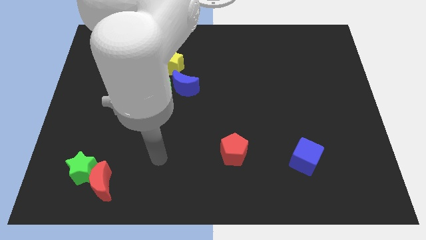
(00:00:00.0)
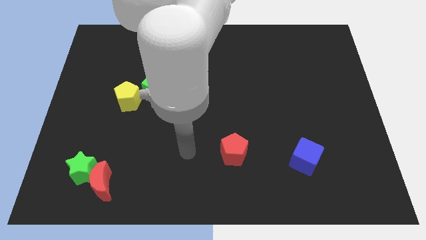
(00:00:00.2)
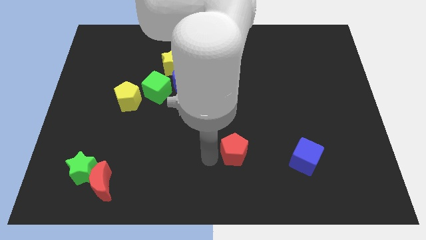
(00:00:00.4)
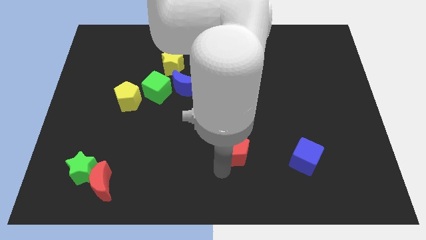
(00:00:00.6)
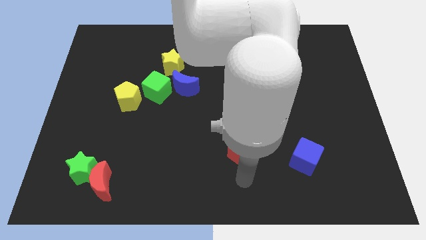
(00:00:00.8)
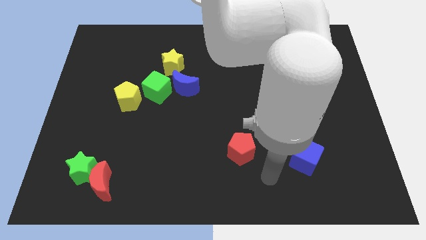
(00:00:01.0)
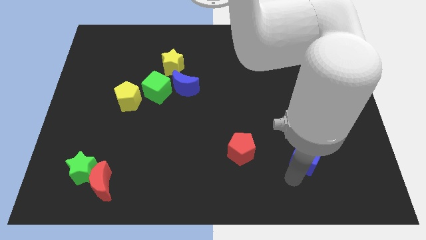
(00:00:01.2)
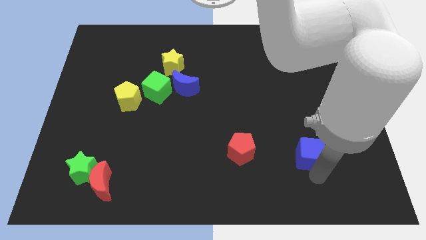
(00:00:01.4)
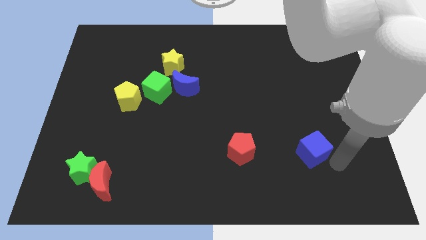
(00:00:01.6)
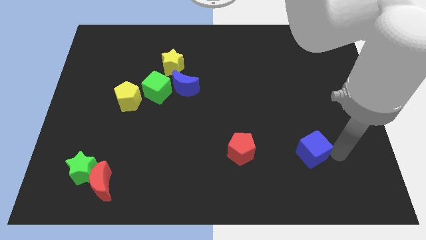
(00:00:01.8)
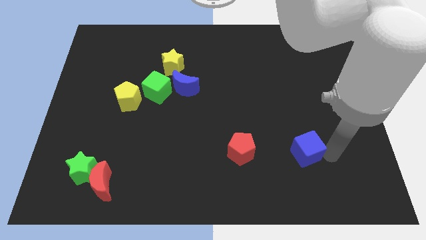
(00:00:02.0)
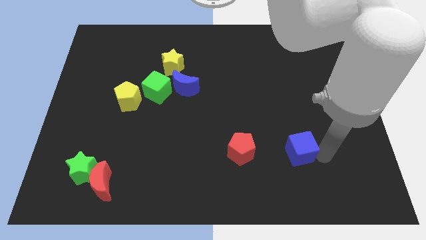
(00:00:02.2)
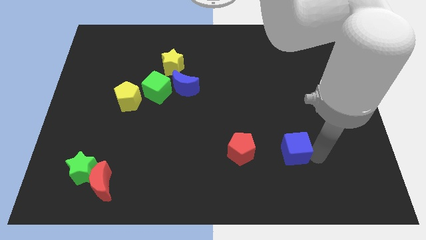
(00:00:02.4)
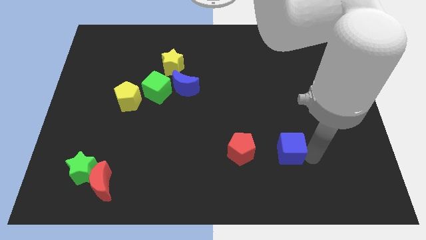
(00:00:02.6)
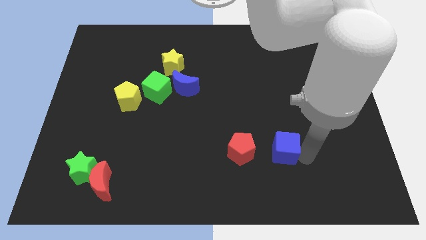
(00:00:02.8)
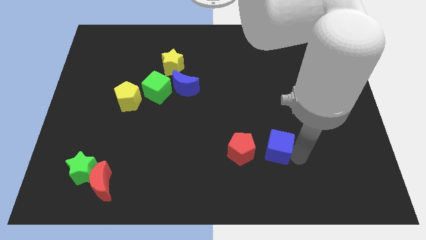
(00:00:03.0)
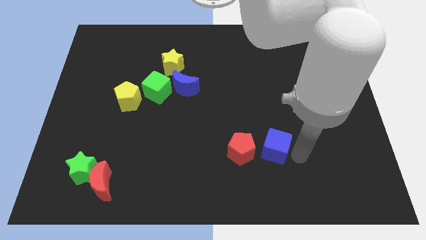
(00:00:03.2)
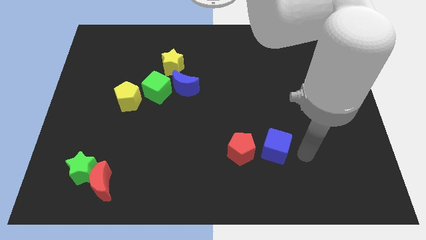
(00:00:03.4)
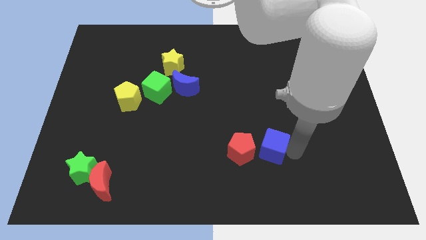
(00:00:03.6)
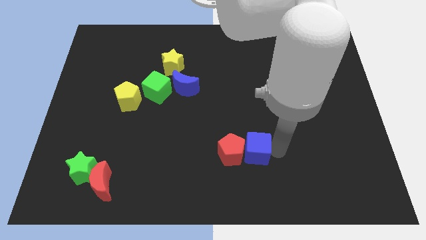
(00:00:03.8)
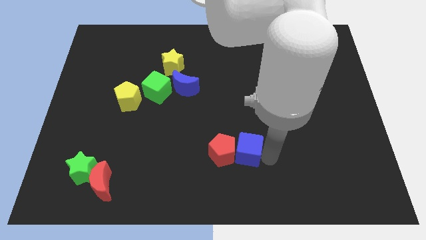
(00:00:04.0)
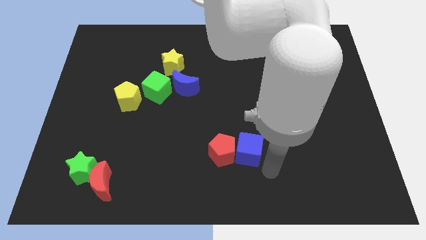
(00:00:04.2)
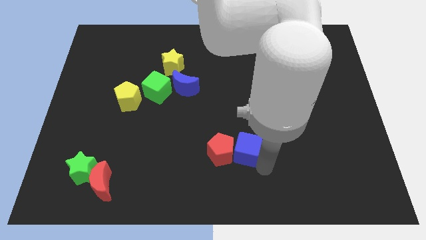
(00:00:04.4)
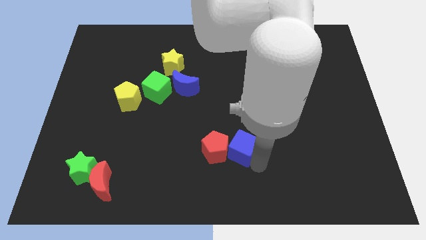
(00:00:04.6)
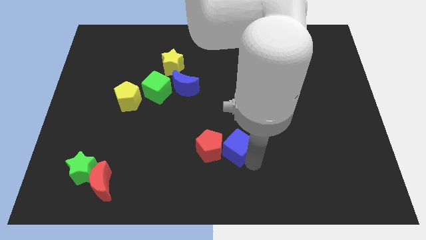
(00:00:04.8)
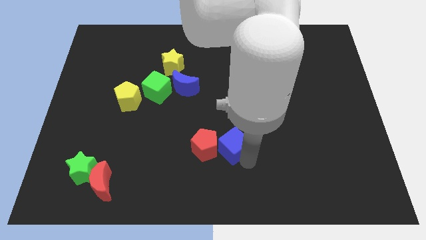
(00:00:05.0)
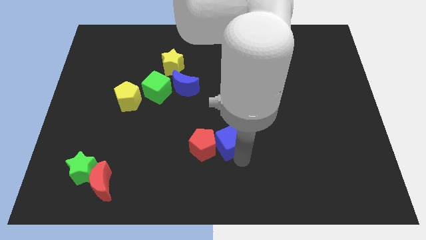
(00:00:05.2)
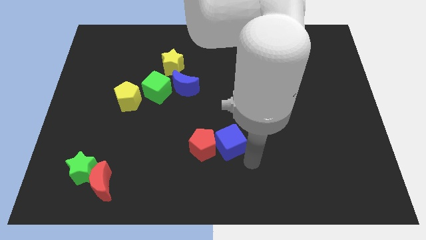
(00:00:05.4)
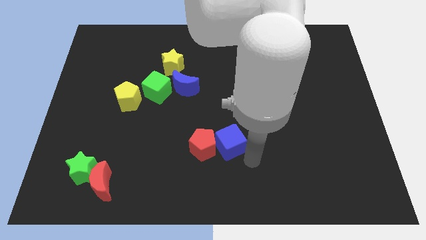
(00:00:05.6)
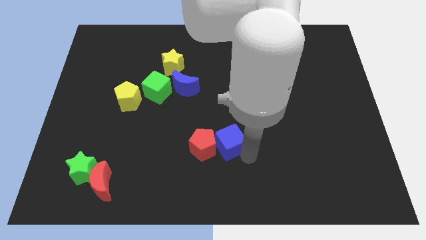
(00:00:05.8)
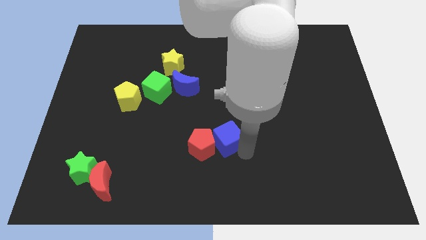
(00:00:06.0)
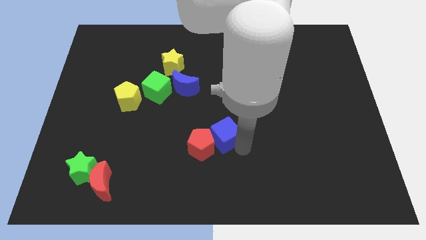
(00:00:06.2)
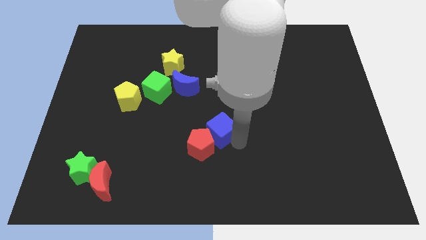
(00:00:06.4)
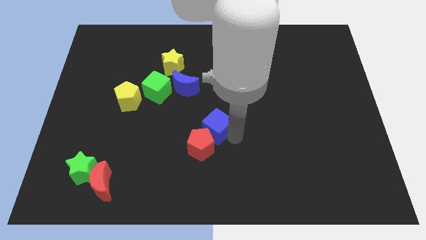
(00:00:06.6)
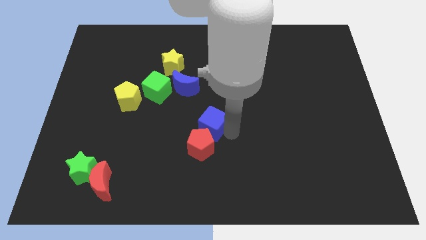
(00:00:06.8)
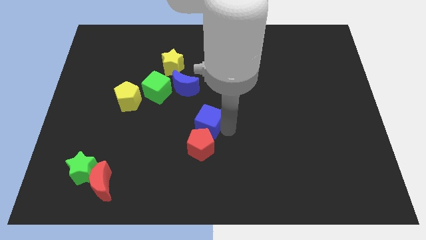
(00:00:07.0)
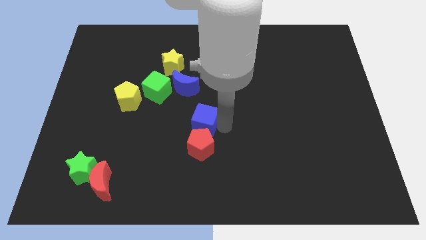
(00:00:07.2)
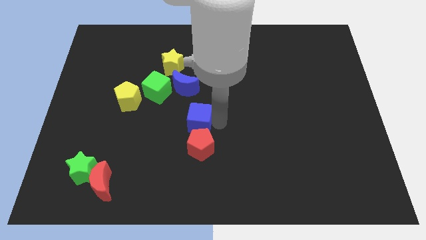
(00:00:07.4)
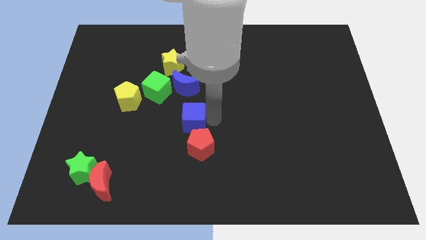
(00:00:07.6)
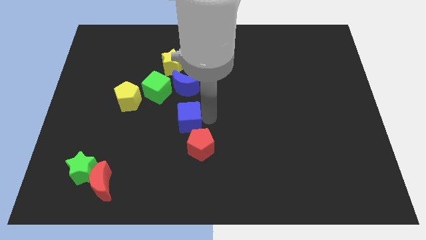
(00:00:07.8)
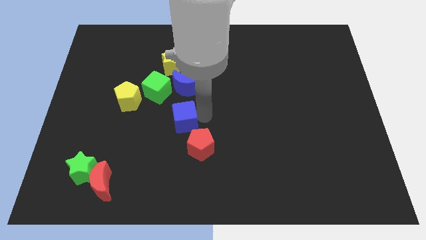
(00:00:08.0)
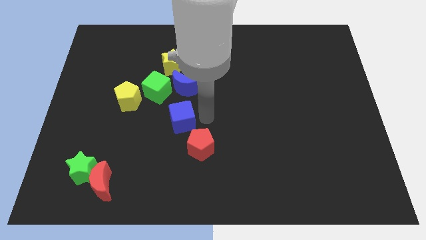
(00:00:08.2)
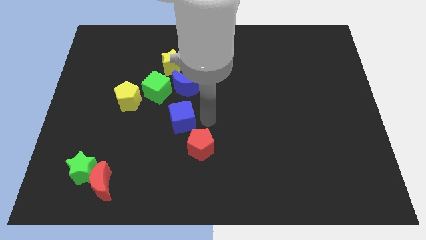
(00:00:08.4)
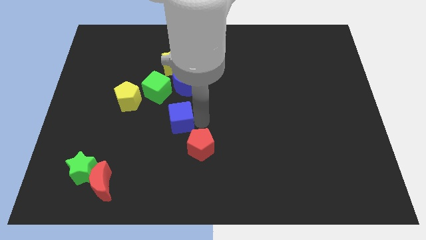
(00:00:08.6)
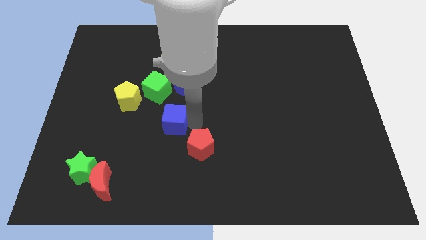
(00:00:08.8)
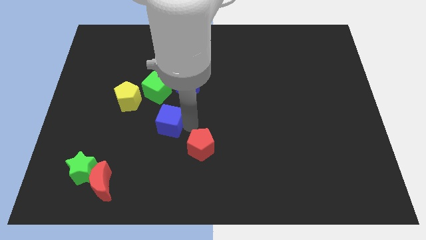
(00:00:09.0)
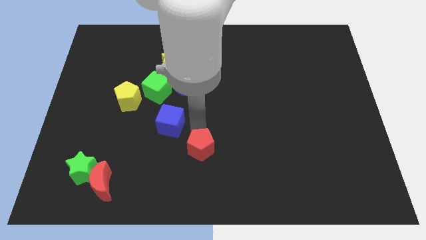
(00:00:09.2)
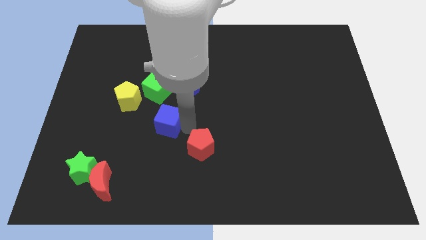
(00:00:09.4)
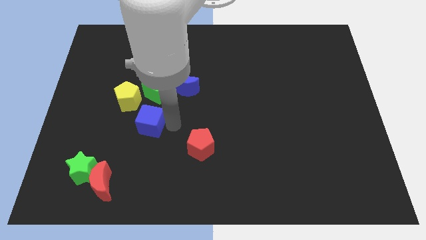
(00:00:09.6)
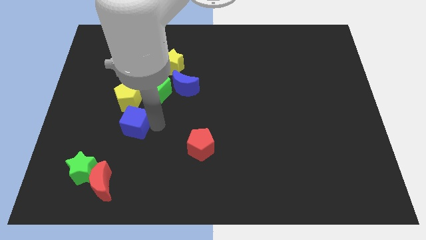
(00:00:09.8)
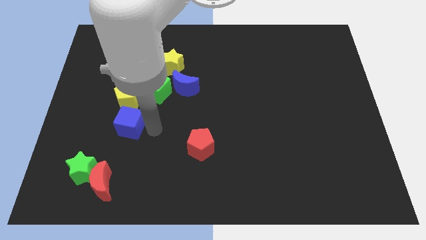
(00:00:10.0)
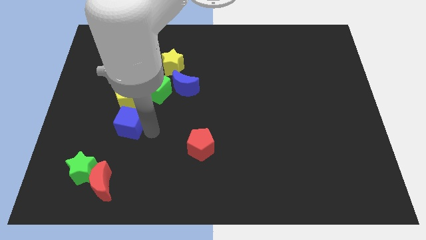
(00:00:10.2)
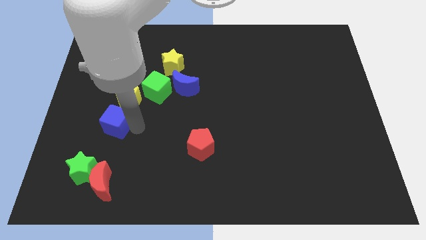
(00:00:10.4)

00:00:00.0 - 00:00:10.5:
push the blue cube to the bottom left of the yellow pentagon

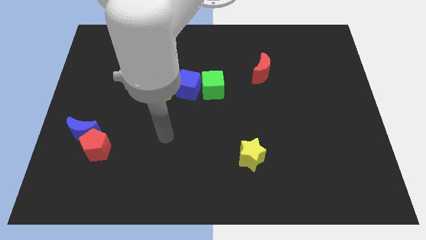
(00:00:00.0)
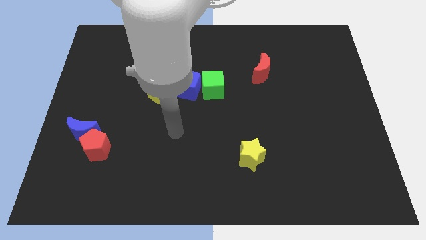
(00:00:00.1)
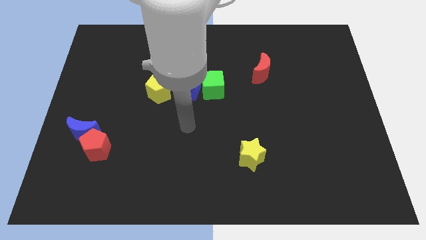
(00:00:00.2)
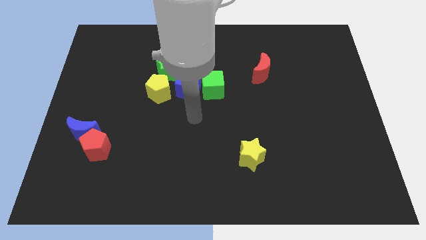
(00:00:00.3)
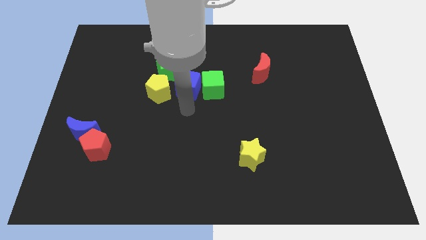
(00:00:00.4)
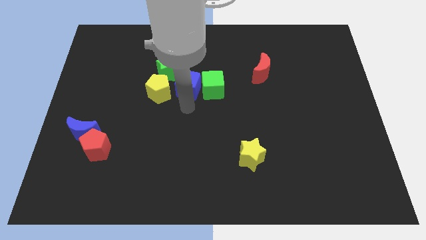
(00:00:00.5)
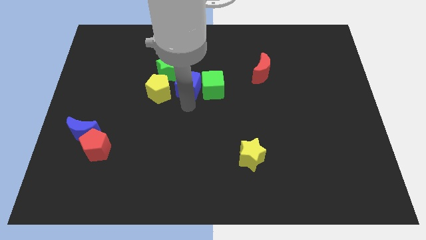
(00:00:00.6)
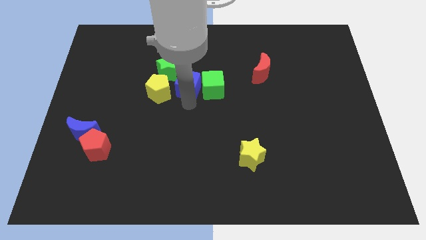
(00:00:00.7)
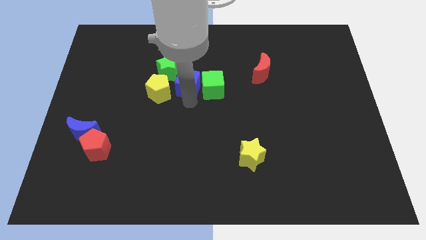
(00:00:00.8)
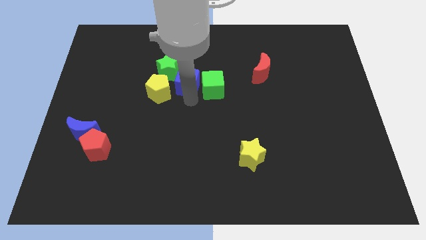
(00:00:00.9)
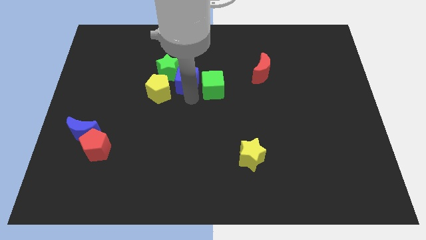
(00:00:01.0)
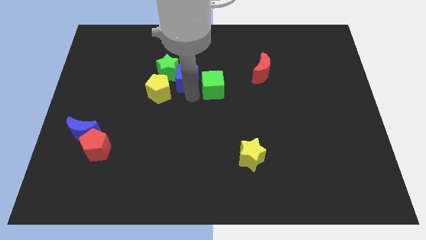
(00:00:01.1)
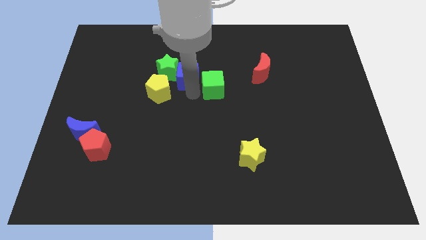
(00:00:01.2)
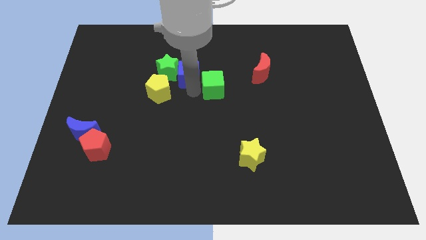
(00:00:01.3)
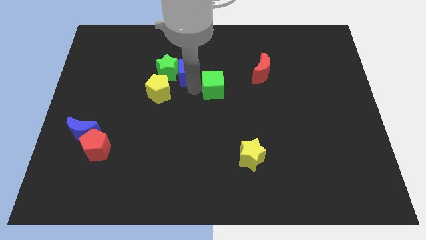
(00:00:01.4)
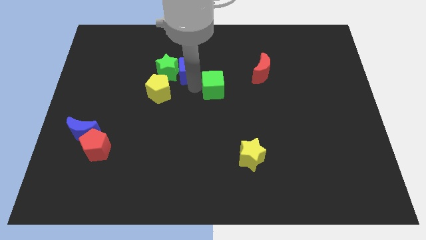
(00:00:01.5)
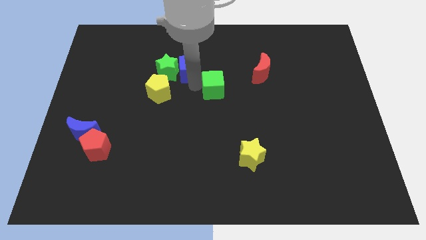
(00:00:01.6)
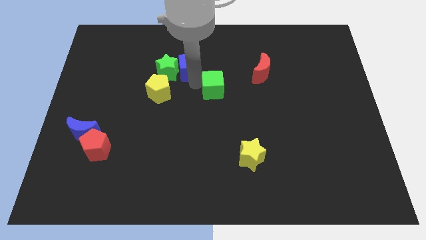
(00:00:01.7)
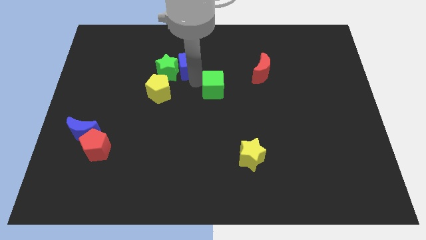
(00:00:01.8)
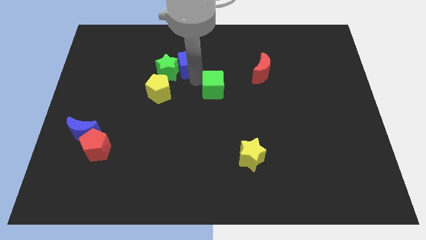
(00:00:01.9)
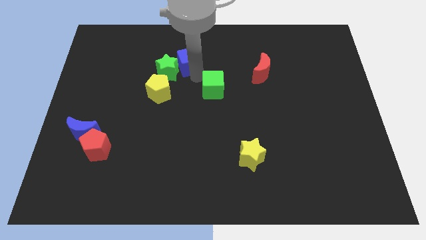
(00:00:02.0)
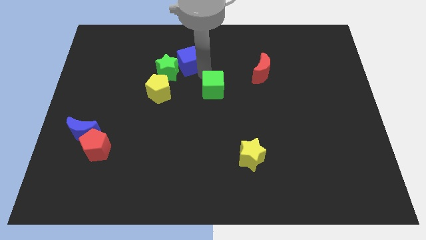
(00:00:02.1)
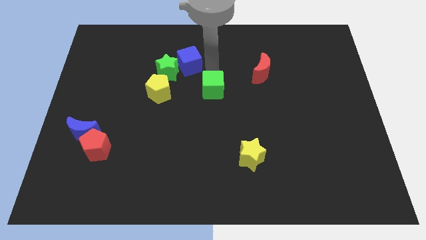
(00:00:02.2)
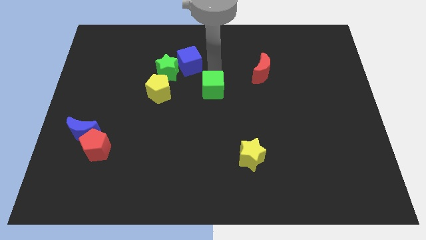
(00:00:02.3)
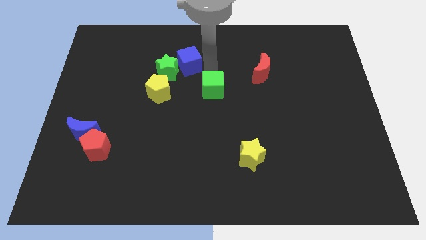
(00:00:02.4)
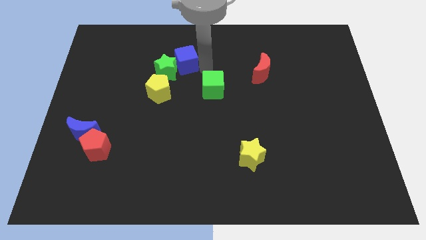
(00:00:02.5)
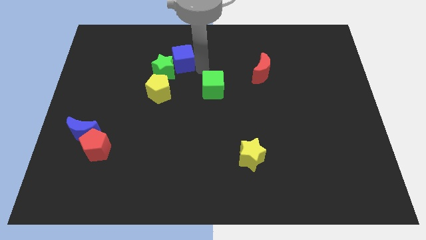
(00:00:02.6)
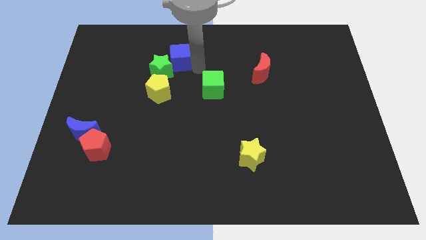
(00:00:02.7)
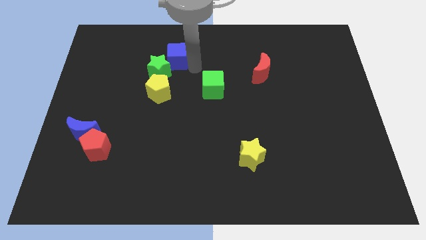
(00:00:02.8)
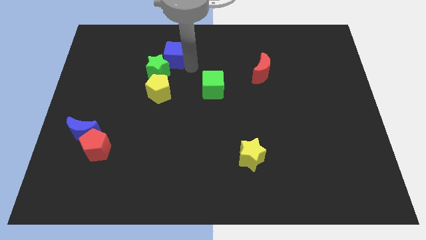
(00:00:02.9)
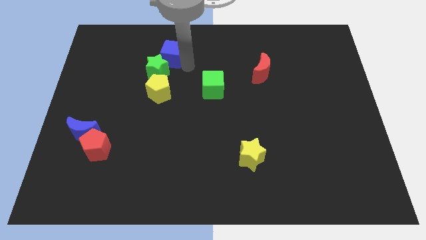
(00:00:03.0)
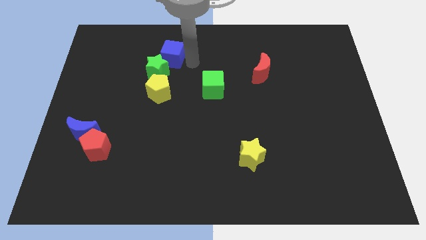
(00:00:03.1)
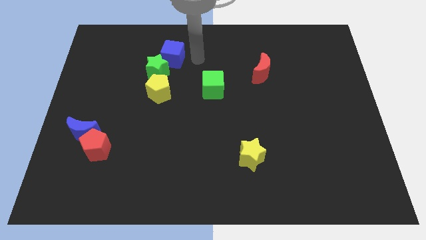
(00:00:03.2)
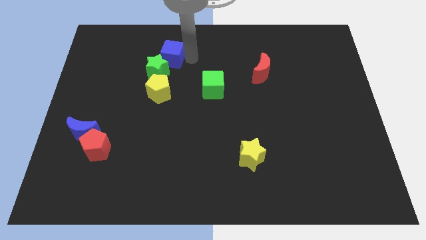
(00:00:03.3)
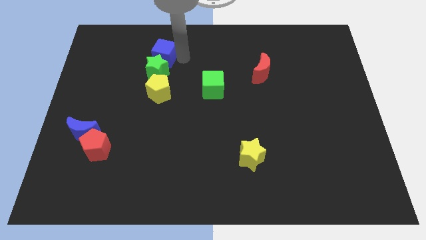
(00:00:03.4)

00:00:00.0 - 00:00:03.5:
put the blue cube to the top left side of the green star
